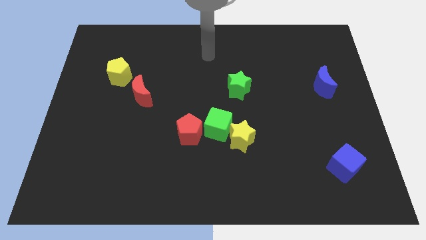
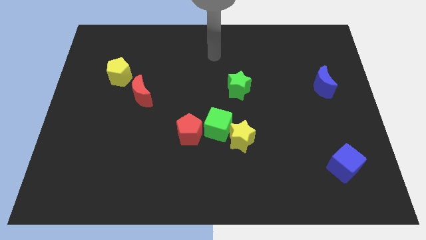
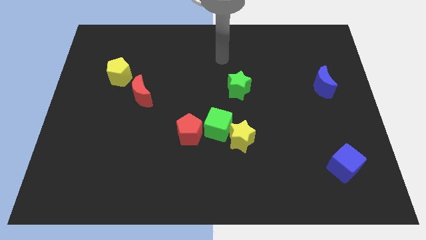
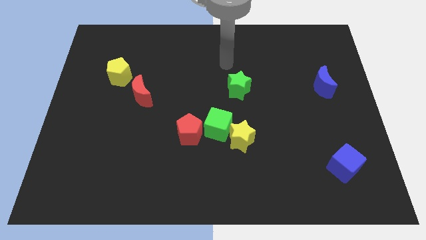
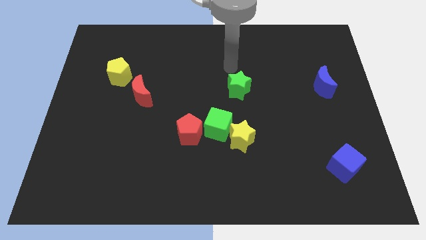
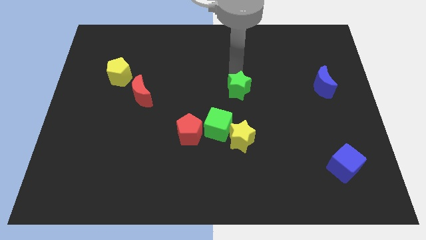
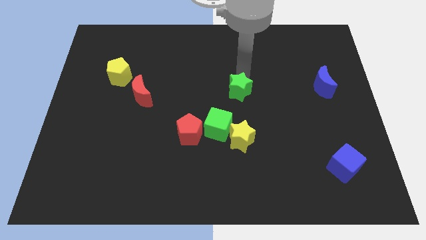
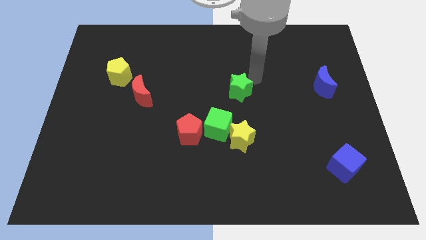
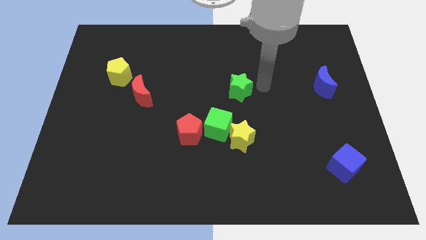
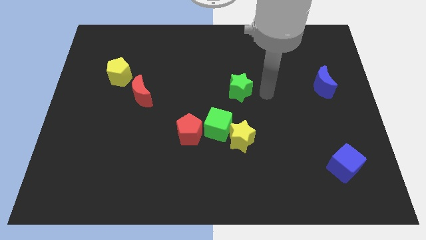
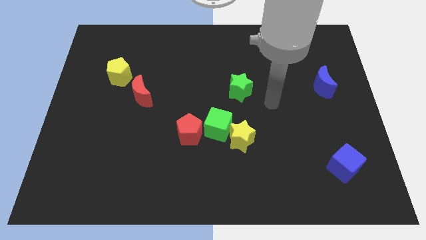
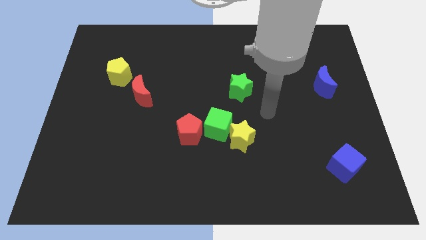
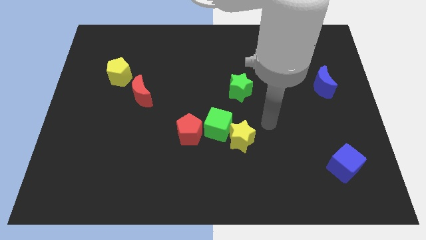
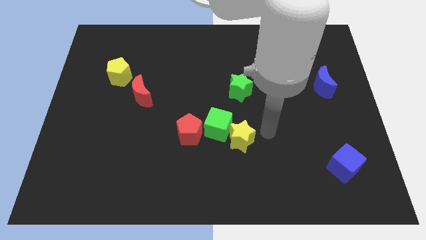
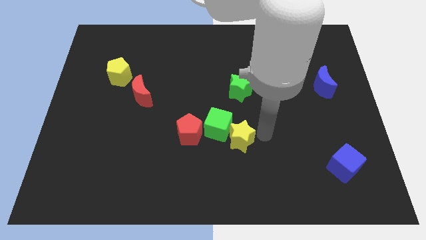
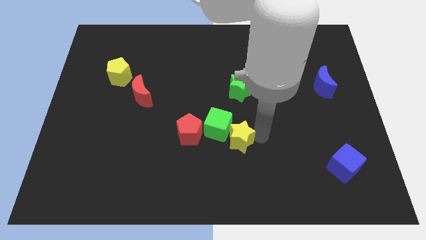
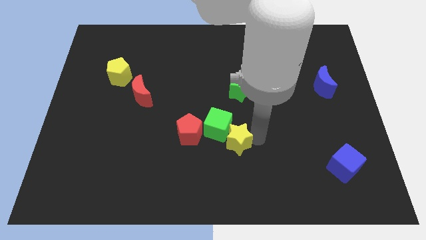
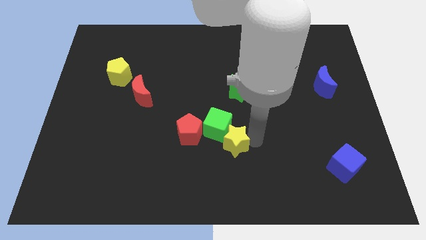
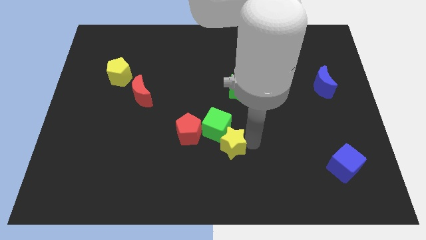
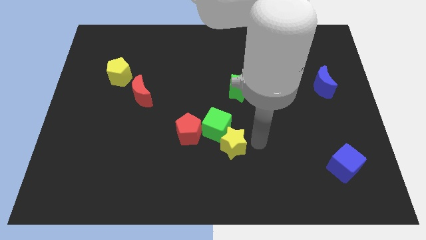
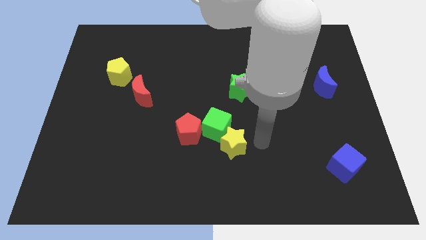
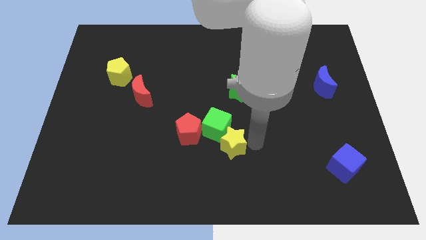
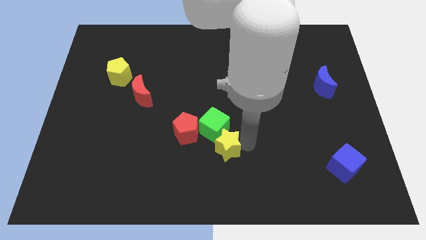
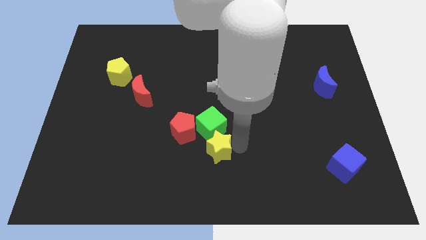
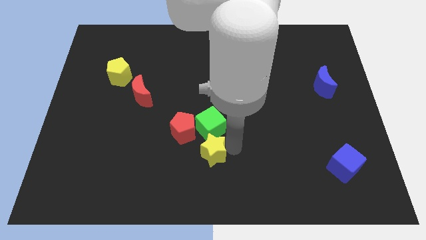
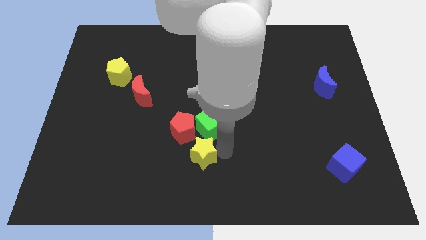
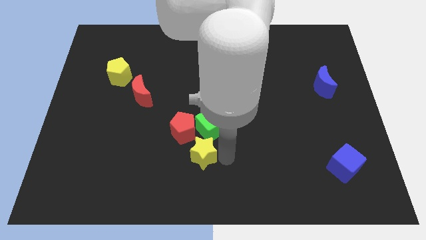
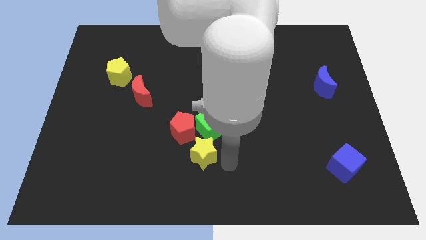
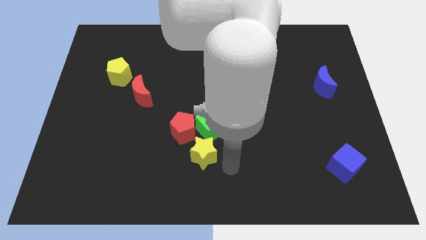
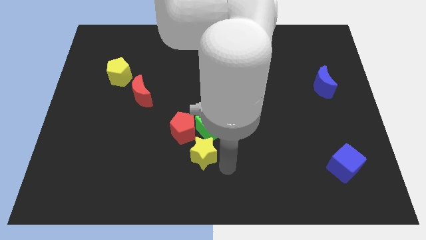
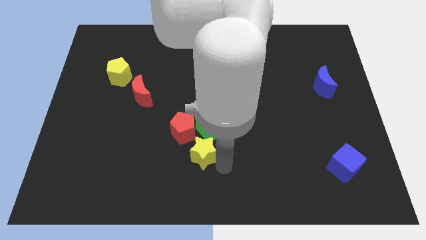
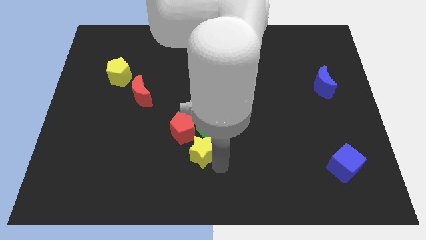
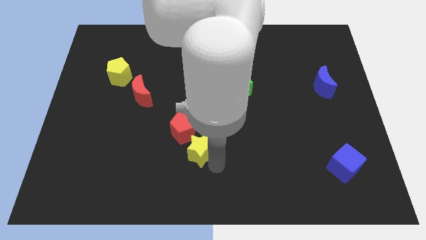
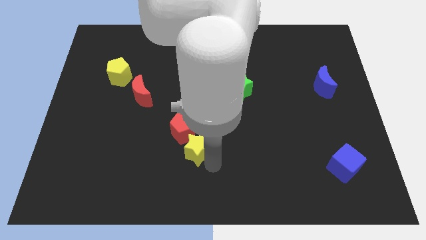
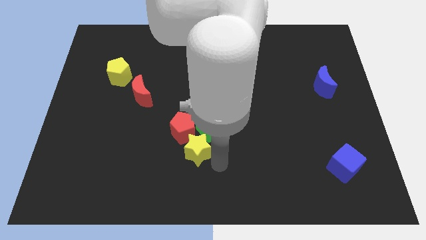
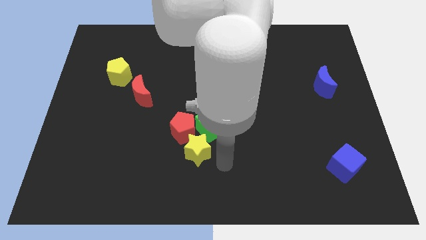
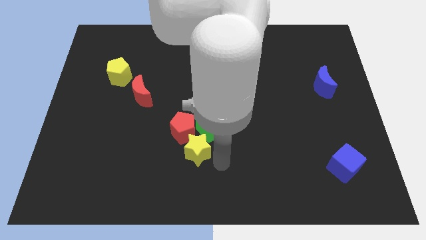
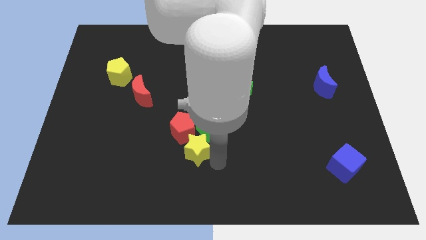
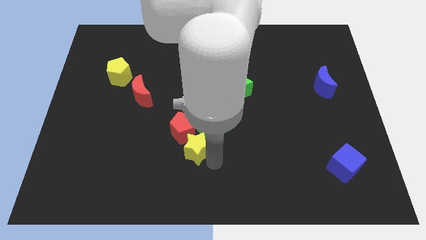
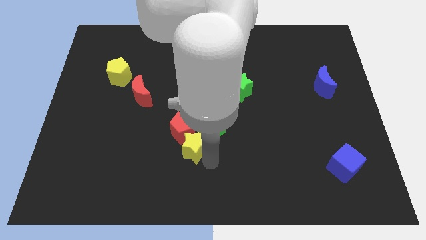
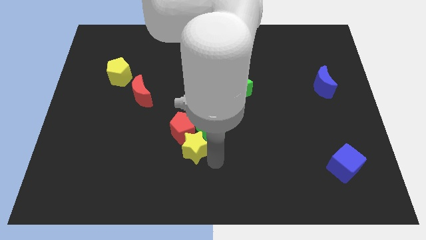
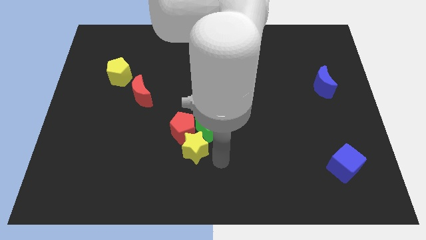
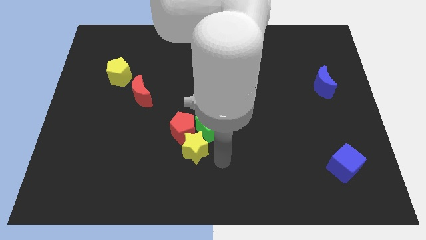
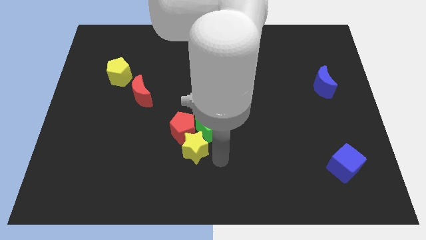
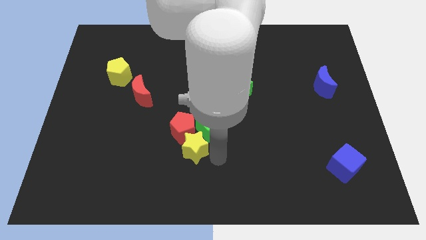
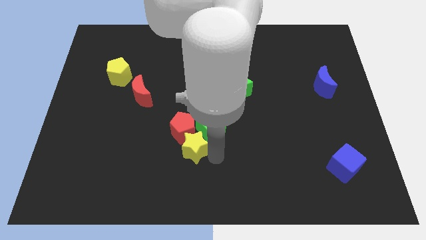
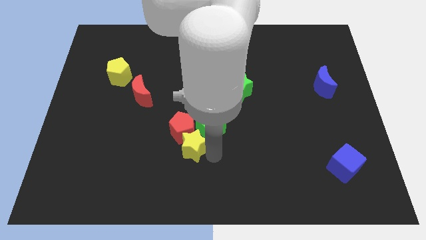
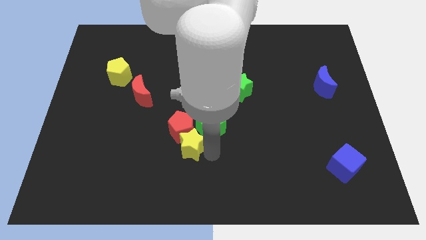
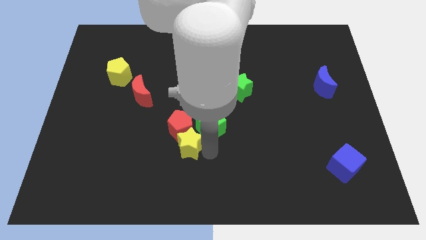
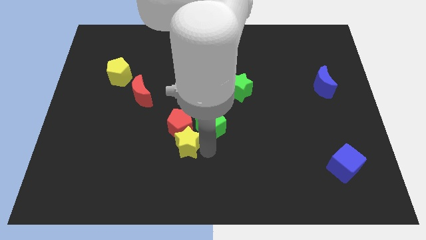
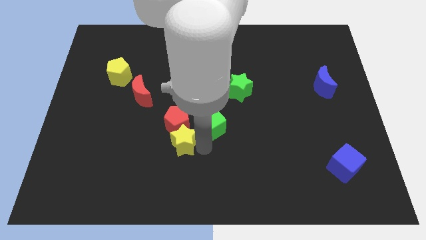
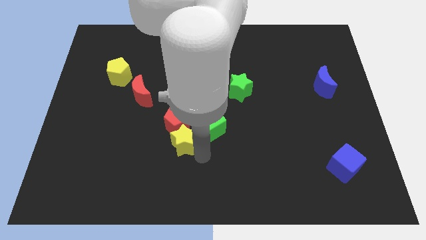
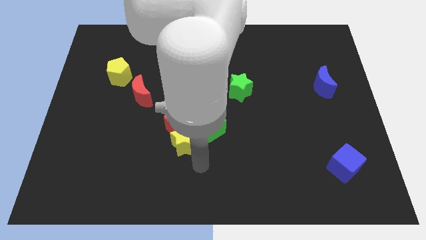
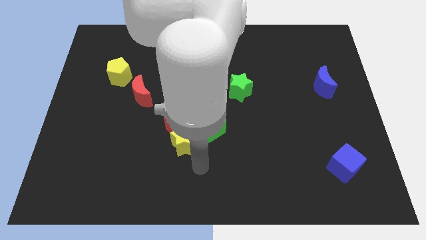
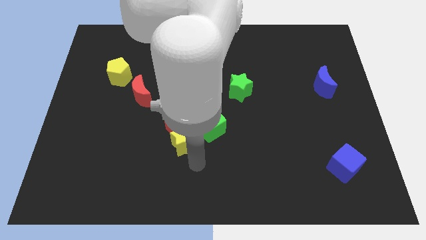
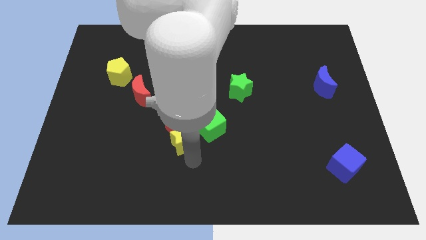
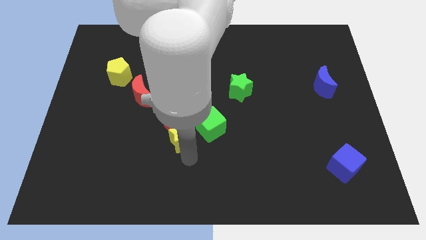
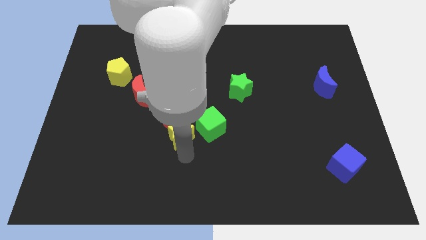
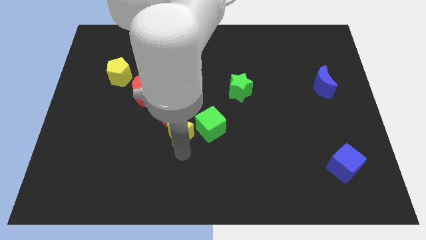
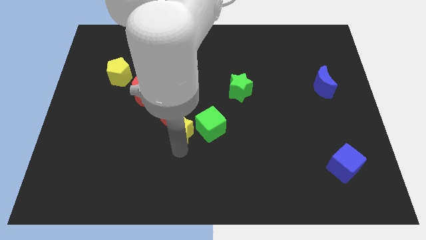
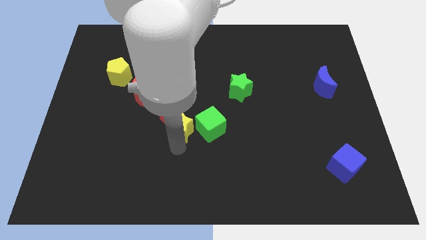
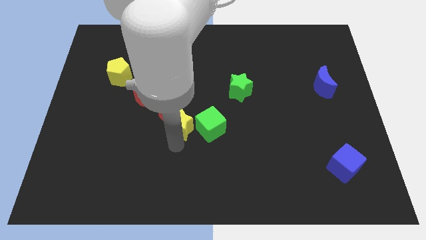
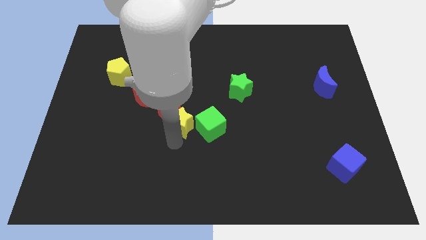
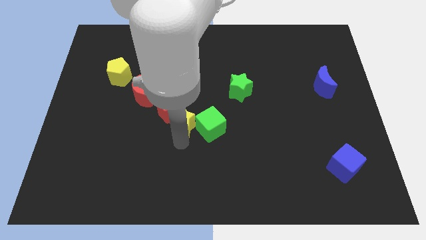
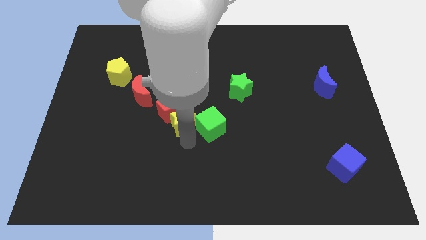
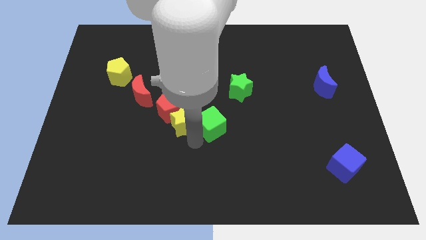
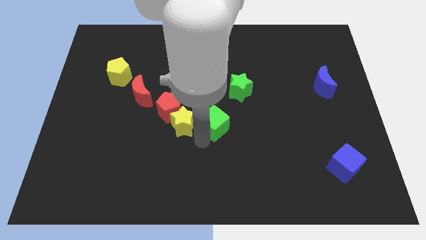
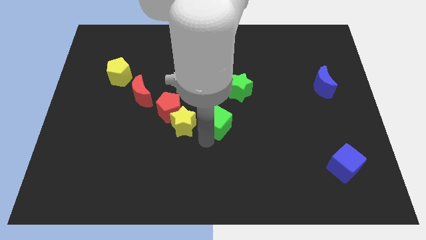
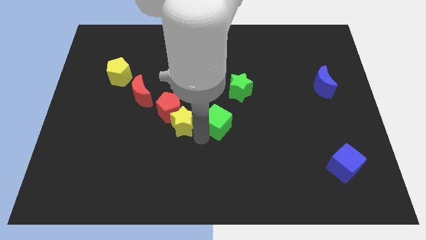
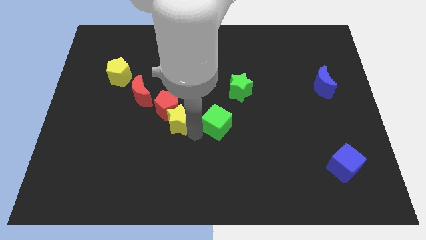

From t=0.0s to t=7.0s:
move the yellow star to the bottom right side of the red moon
